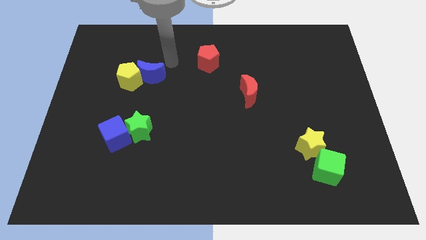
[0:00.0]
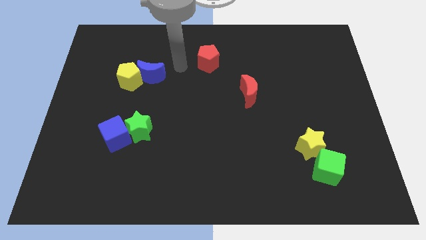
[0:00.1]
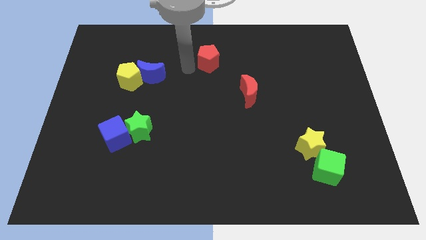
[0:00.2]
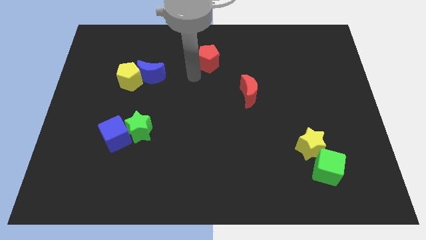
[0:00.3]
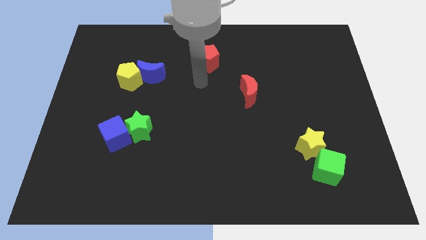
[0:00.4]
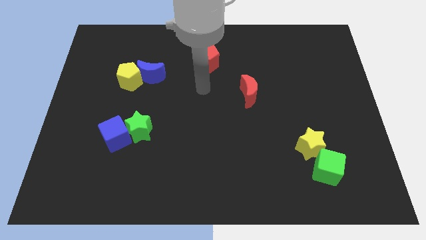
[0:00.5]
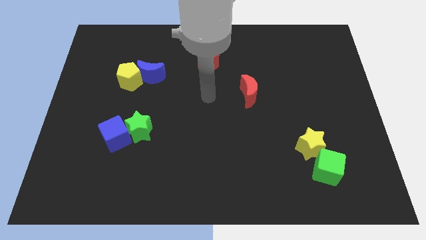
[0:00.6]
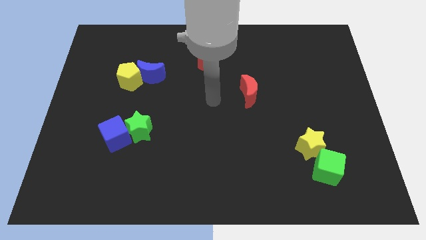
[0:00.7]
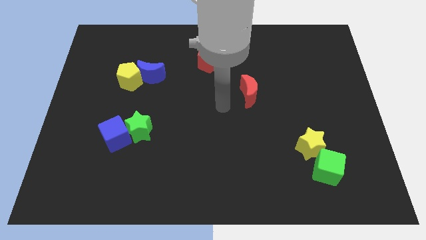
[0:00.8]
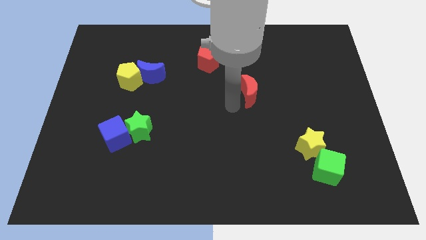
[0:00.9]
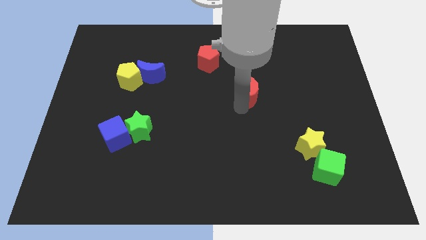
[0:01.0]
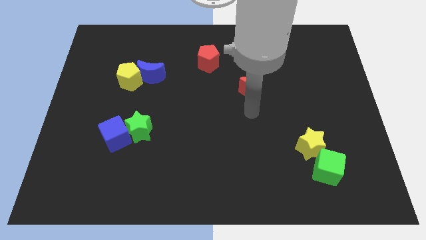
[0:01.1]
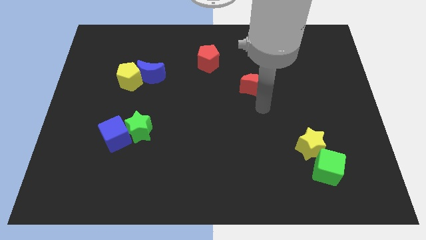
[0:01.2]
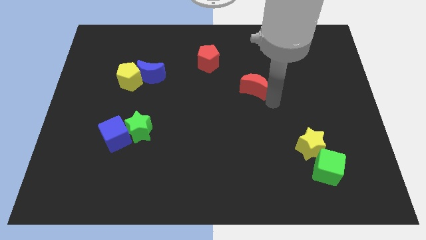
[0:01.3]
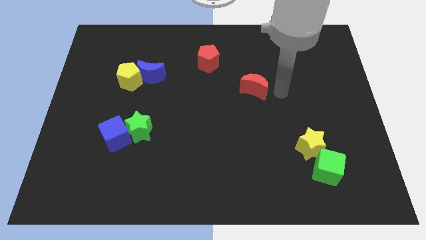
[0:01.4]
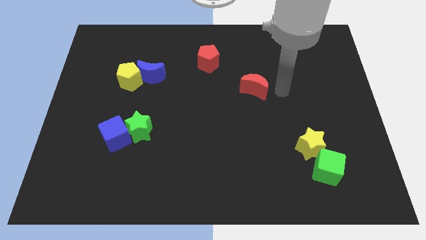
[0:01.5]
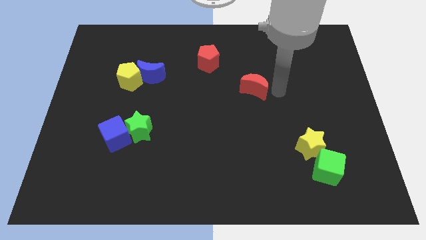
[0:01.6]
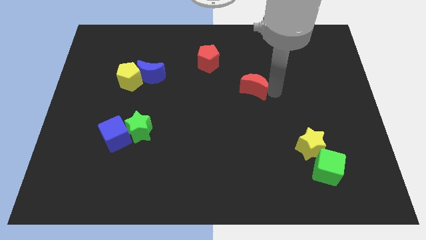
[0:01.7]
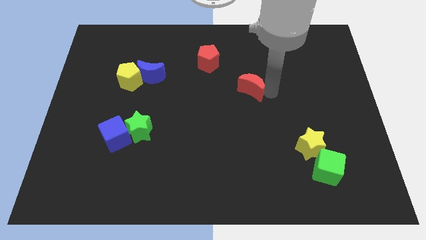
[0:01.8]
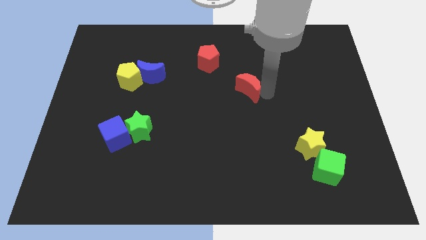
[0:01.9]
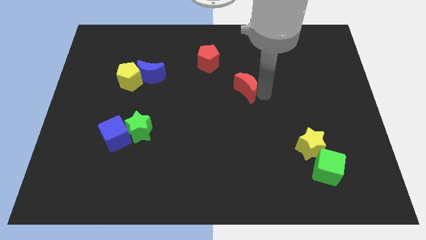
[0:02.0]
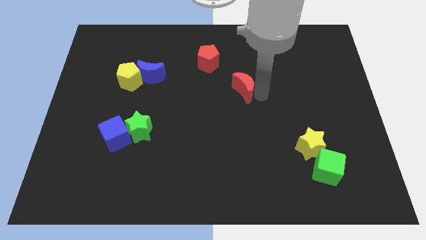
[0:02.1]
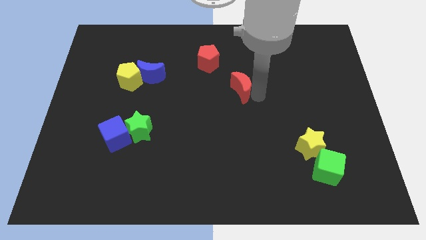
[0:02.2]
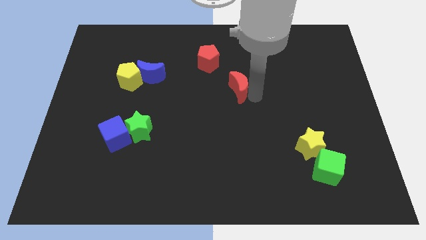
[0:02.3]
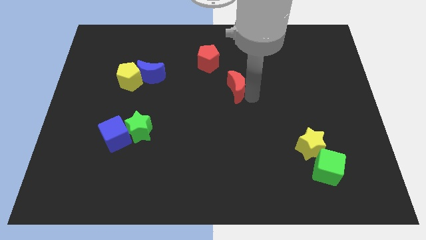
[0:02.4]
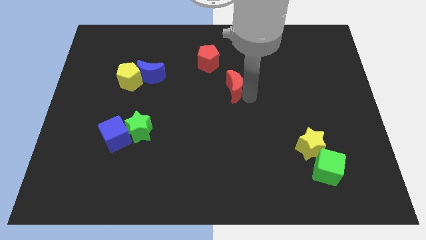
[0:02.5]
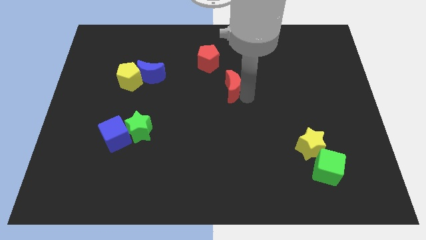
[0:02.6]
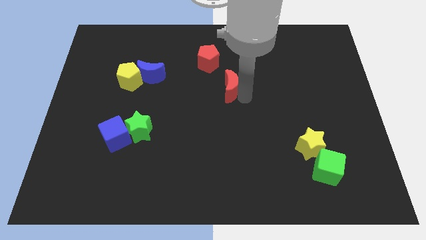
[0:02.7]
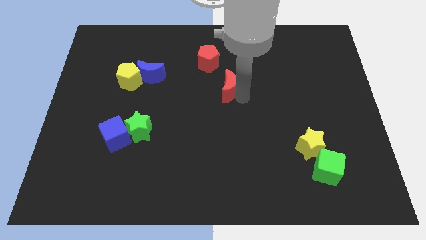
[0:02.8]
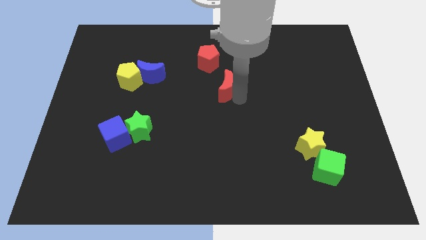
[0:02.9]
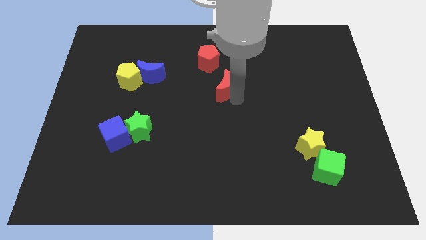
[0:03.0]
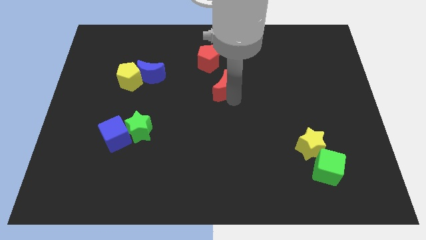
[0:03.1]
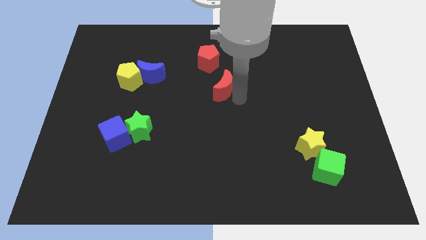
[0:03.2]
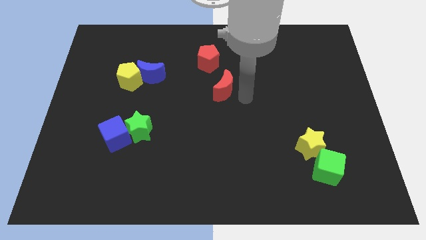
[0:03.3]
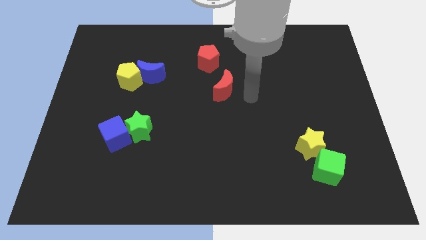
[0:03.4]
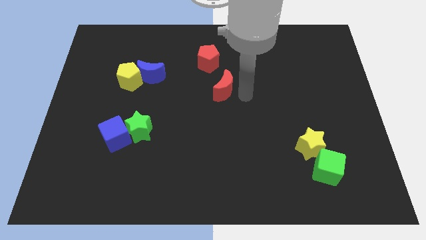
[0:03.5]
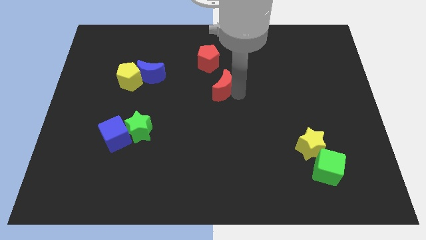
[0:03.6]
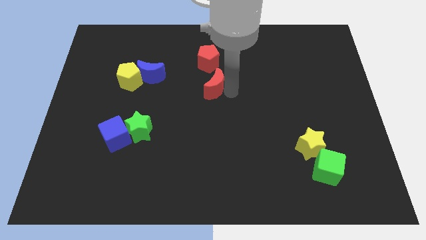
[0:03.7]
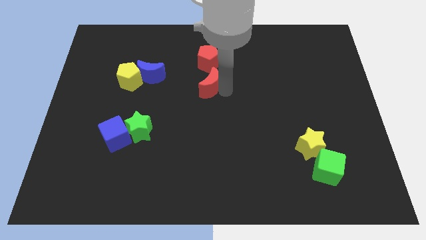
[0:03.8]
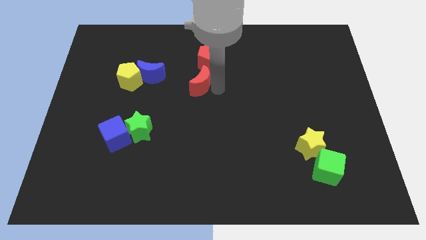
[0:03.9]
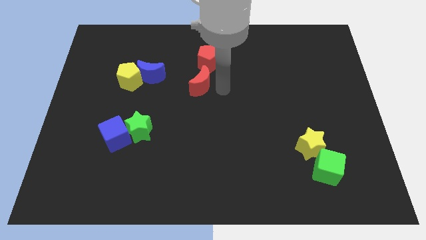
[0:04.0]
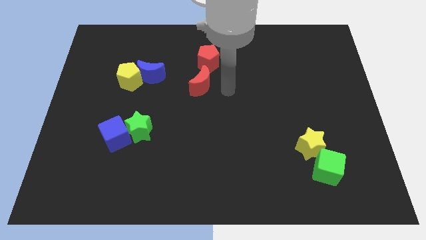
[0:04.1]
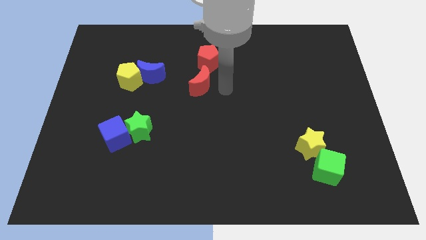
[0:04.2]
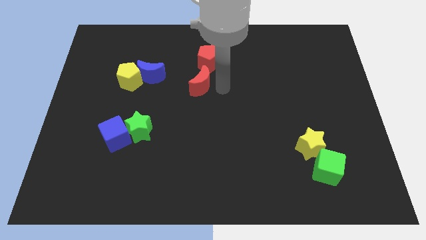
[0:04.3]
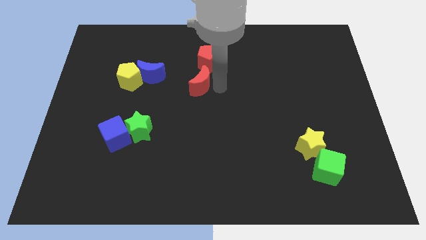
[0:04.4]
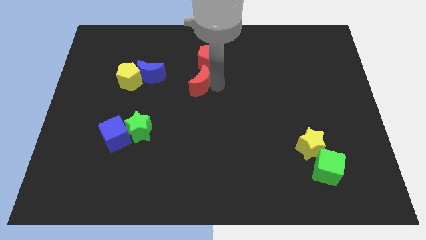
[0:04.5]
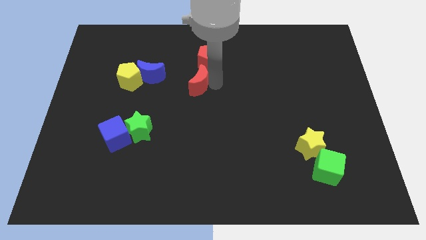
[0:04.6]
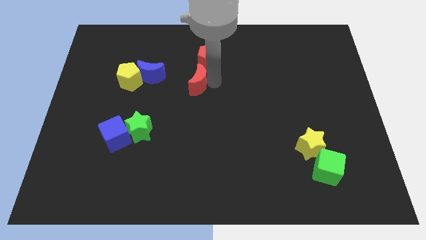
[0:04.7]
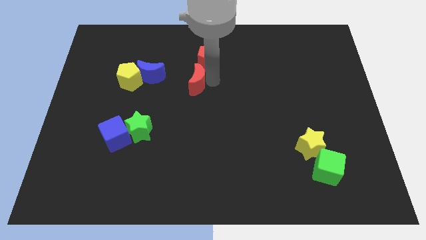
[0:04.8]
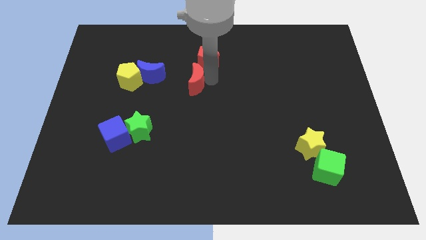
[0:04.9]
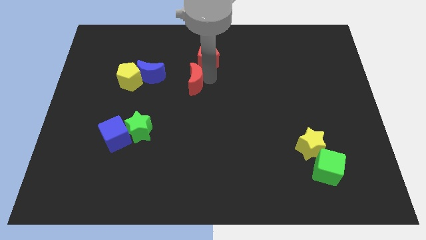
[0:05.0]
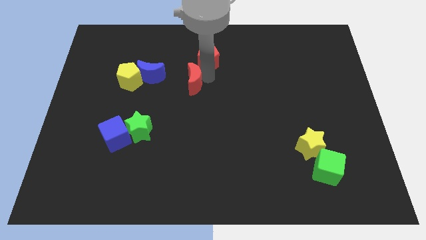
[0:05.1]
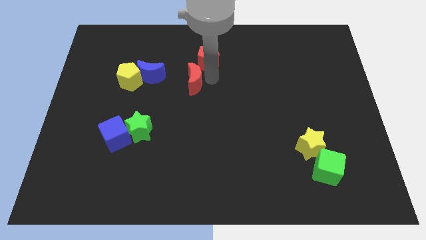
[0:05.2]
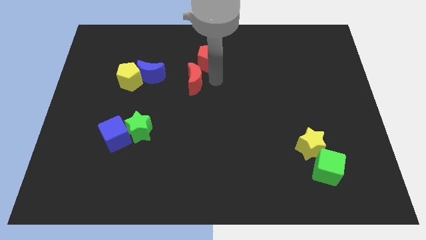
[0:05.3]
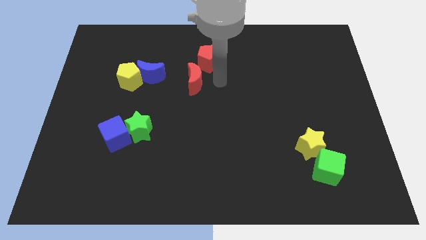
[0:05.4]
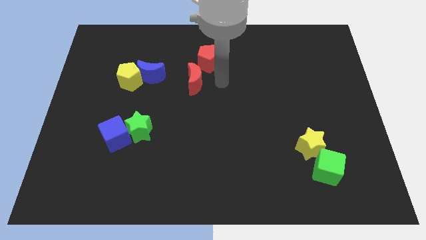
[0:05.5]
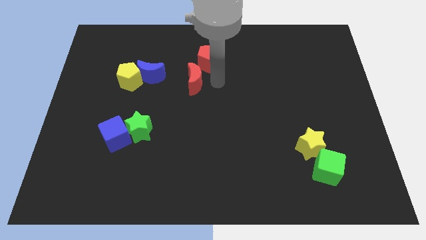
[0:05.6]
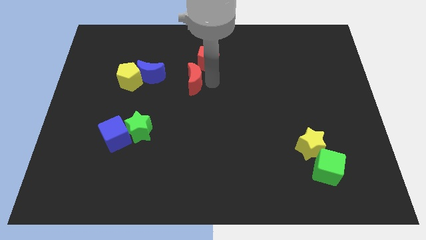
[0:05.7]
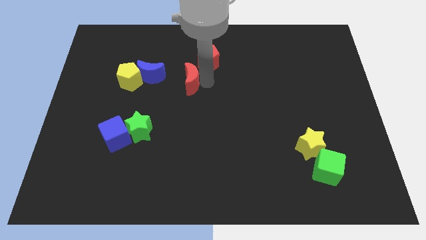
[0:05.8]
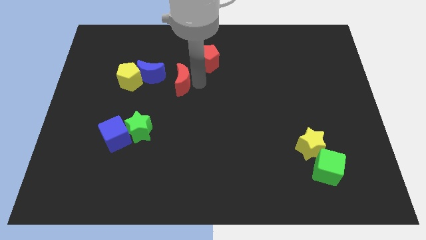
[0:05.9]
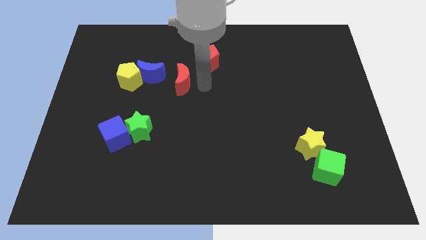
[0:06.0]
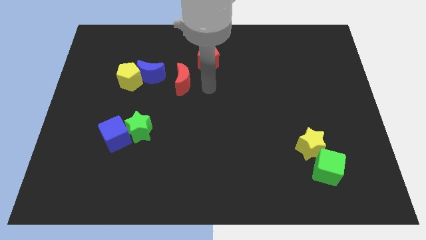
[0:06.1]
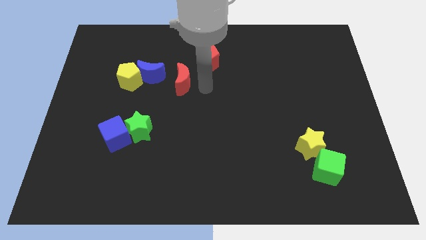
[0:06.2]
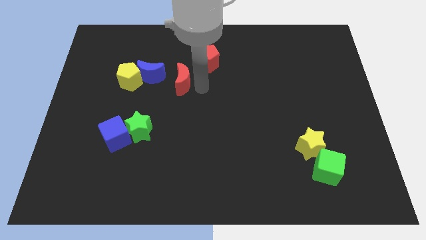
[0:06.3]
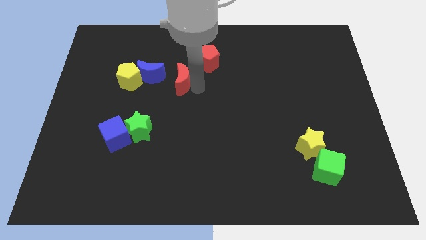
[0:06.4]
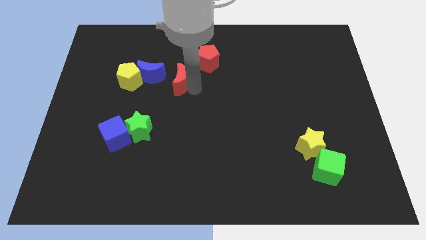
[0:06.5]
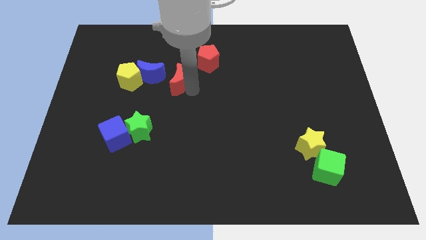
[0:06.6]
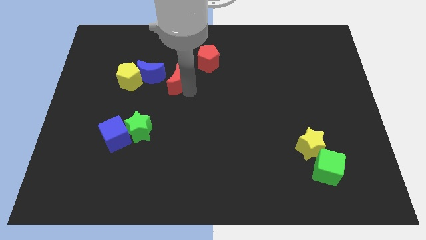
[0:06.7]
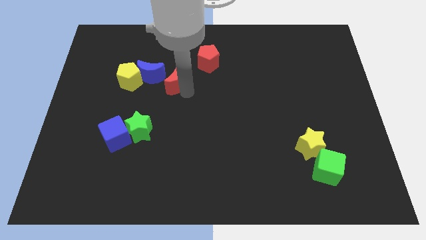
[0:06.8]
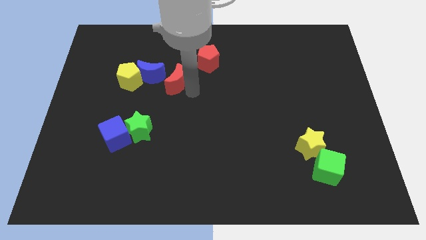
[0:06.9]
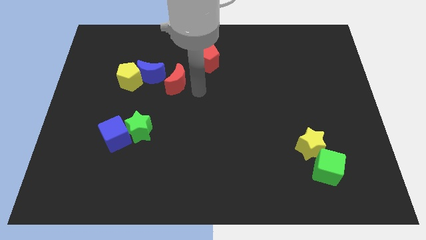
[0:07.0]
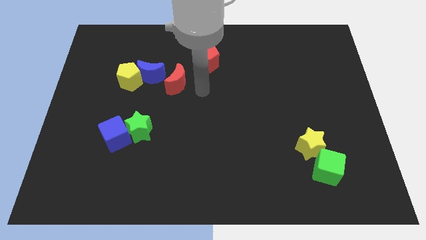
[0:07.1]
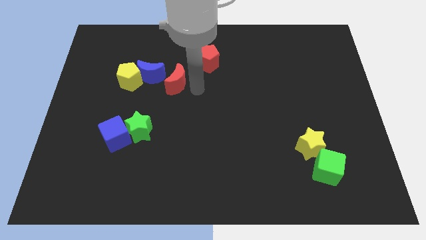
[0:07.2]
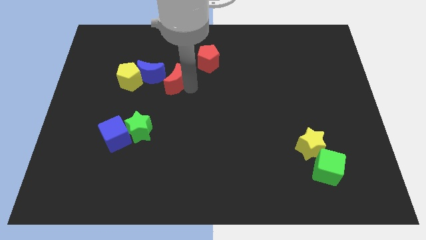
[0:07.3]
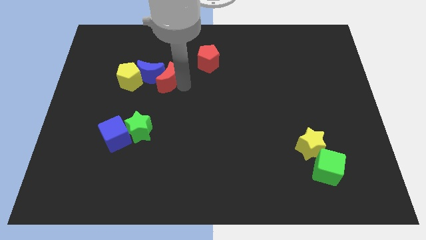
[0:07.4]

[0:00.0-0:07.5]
push the red moon close to the blue moon
